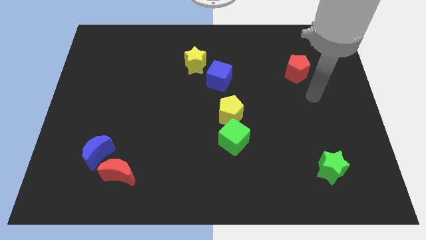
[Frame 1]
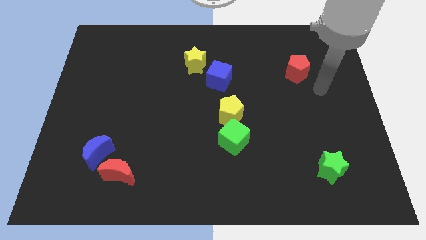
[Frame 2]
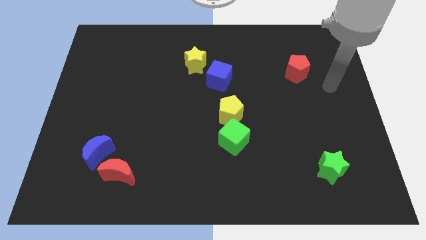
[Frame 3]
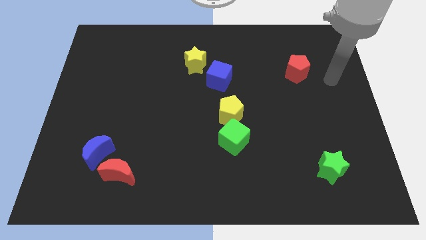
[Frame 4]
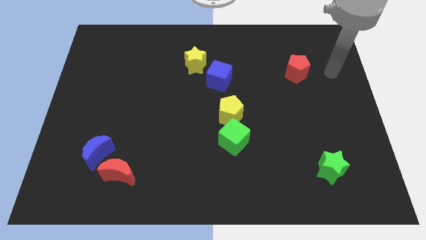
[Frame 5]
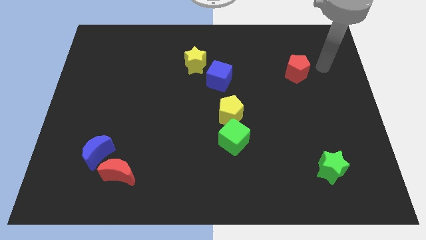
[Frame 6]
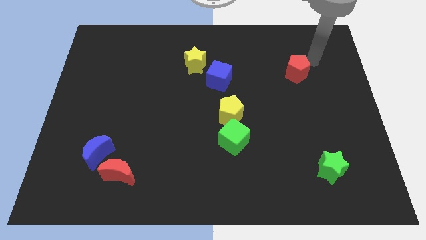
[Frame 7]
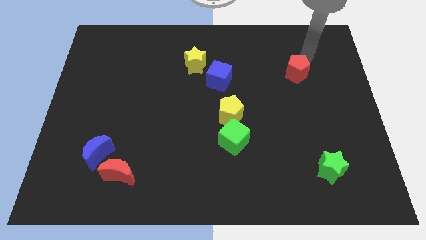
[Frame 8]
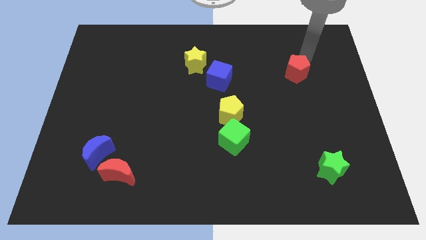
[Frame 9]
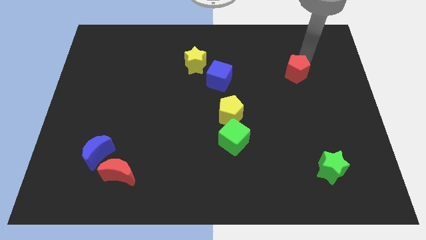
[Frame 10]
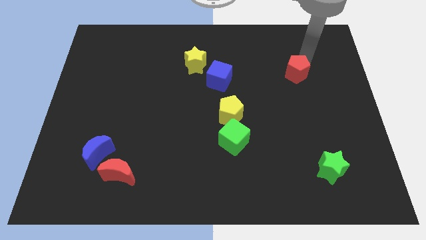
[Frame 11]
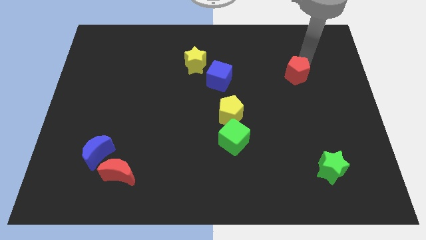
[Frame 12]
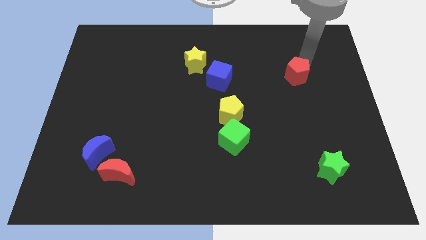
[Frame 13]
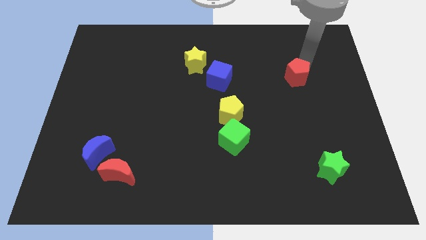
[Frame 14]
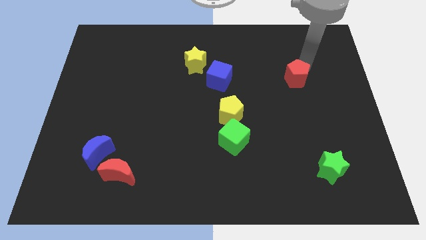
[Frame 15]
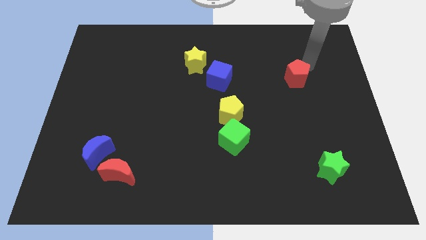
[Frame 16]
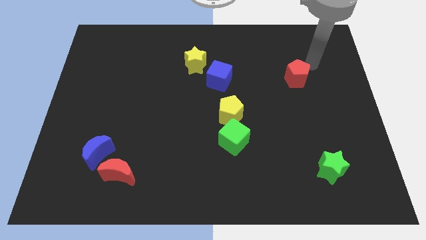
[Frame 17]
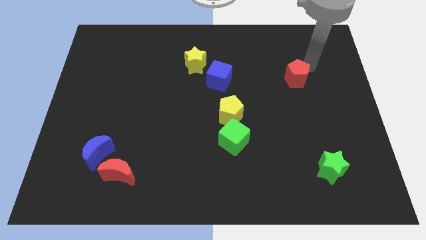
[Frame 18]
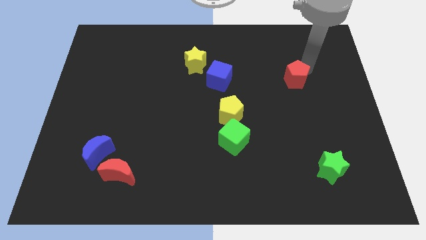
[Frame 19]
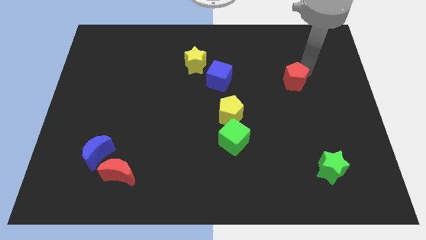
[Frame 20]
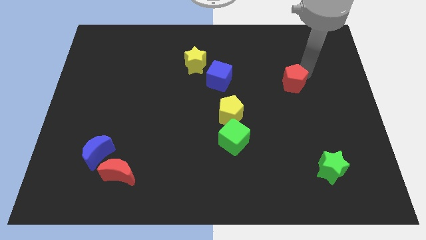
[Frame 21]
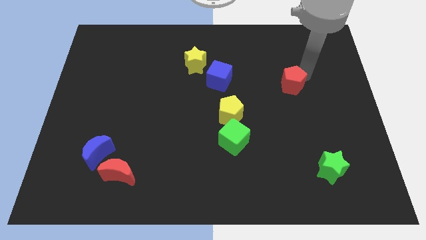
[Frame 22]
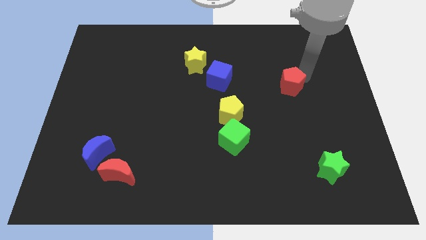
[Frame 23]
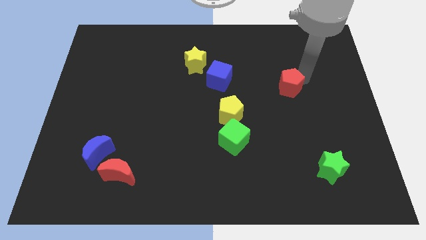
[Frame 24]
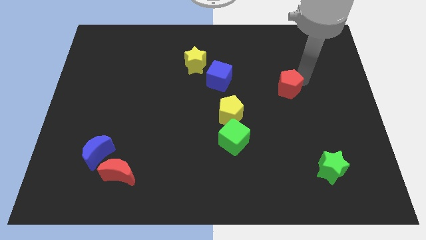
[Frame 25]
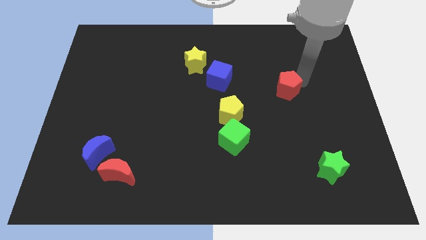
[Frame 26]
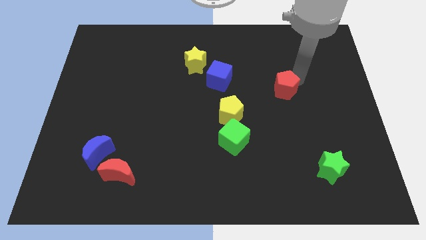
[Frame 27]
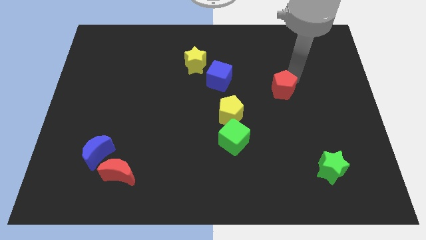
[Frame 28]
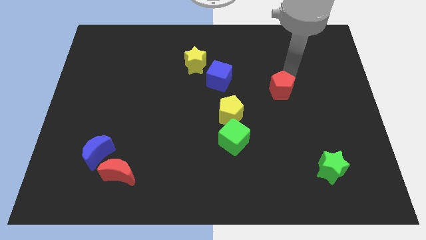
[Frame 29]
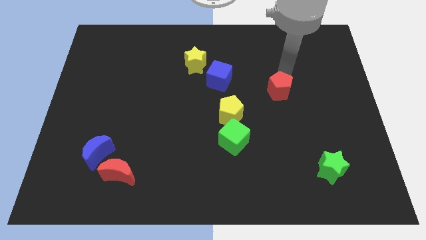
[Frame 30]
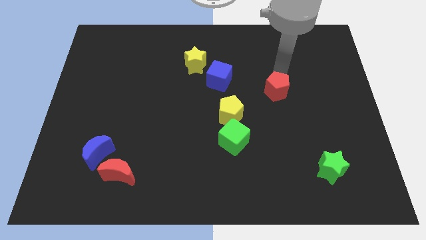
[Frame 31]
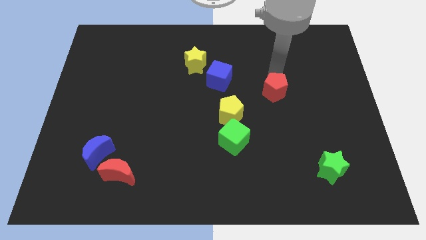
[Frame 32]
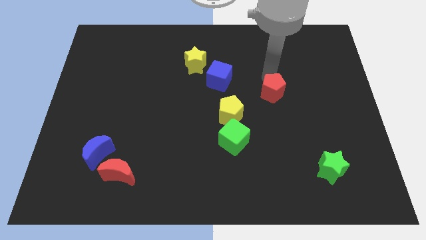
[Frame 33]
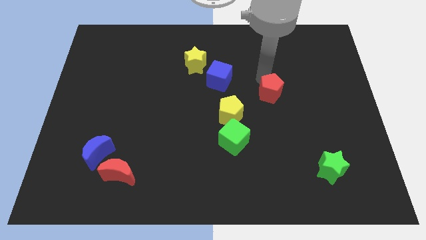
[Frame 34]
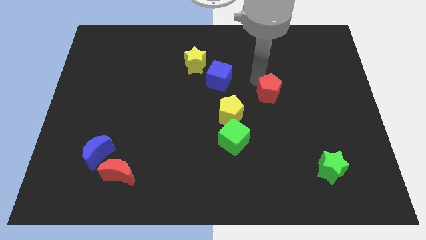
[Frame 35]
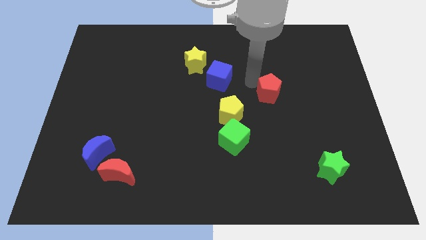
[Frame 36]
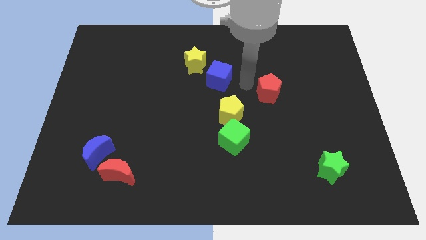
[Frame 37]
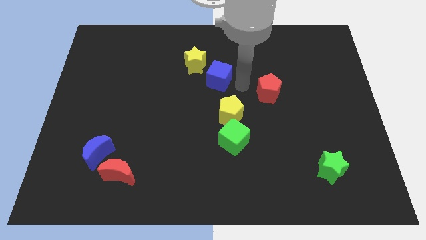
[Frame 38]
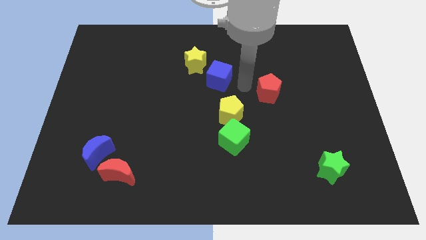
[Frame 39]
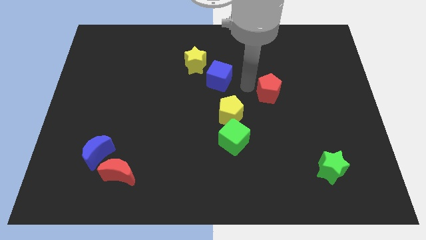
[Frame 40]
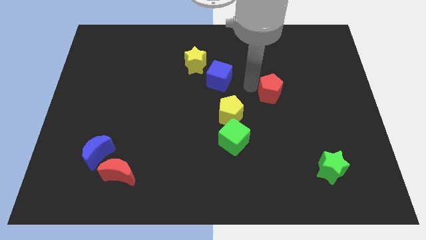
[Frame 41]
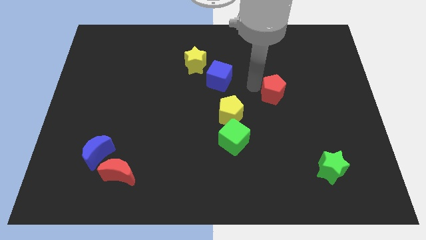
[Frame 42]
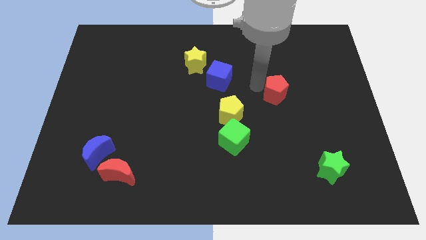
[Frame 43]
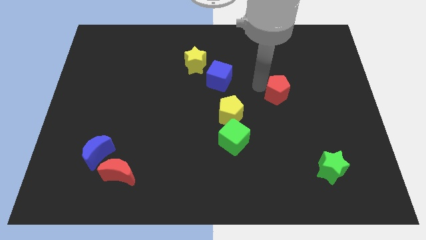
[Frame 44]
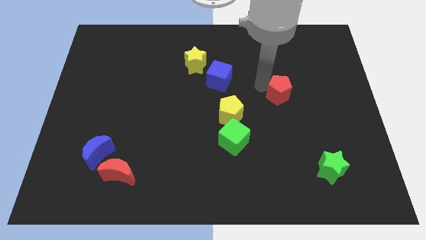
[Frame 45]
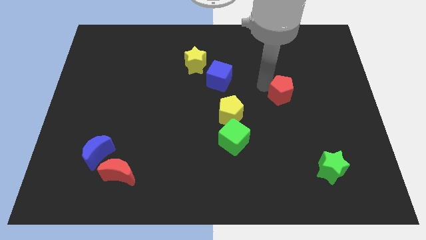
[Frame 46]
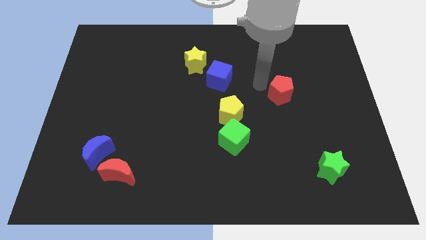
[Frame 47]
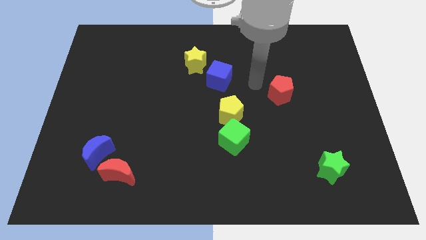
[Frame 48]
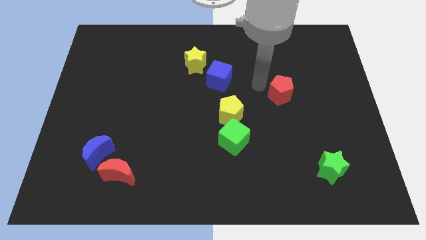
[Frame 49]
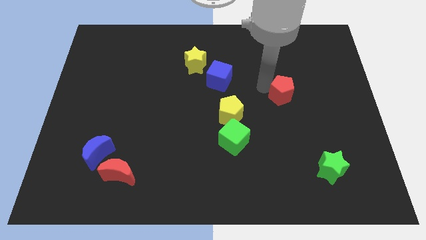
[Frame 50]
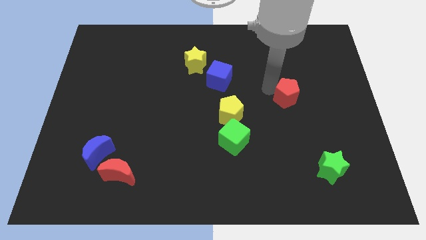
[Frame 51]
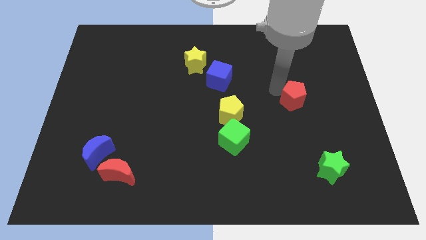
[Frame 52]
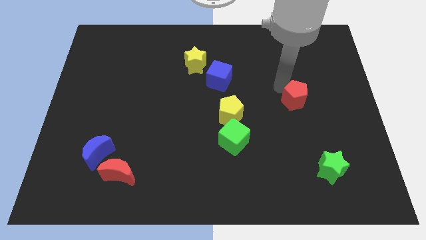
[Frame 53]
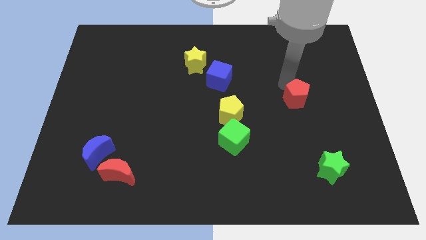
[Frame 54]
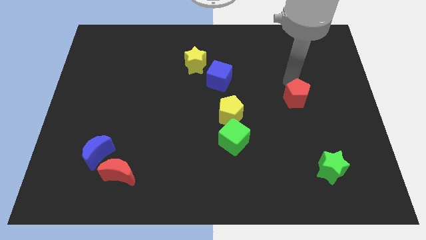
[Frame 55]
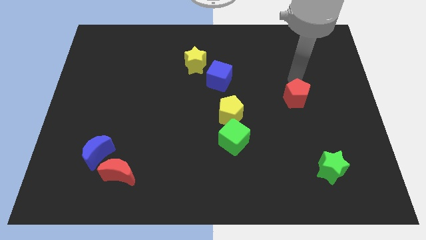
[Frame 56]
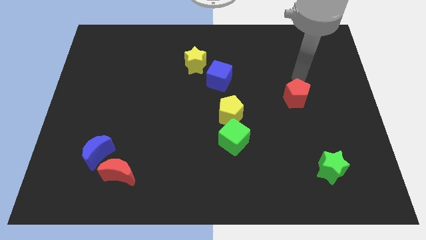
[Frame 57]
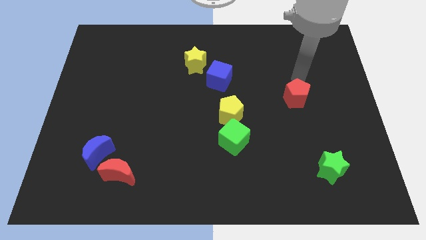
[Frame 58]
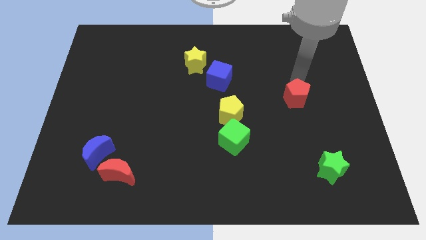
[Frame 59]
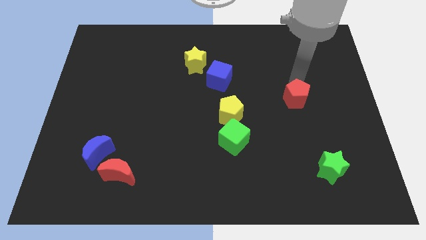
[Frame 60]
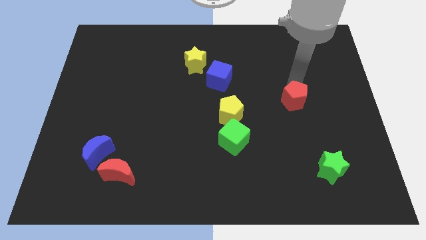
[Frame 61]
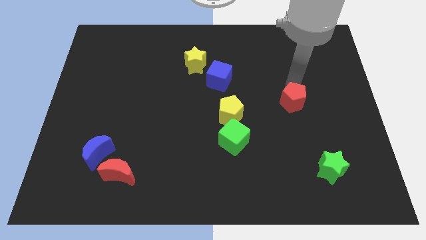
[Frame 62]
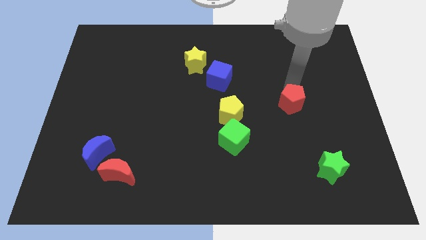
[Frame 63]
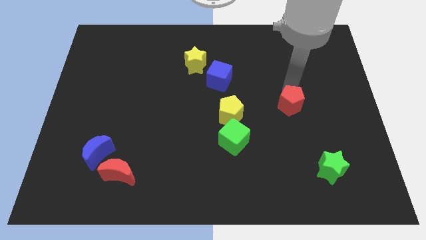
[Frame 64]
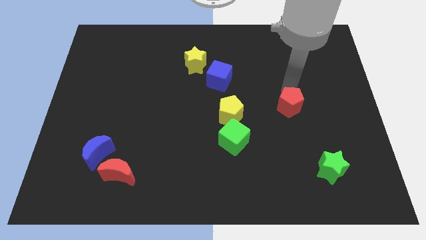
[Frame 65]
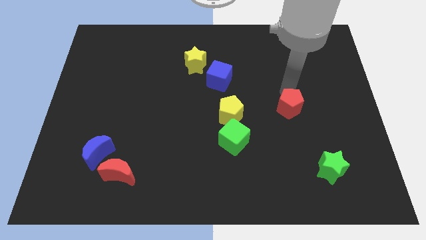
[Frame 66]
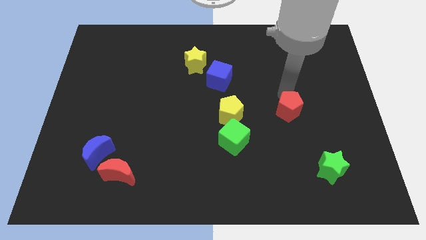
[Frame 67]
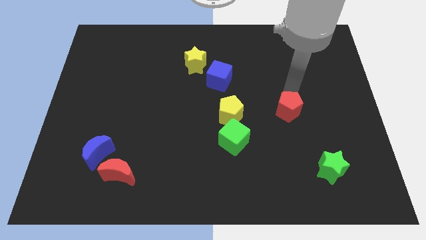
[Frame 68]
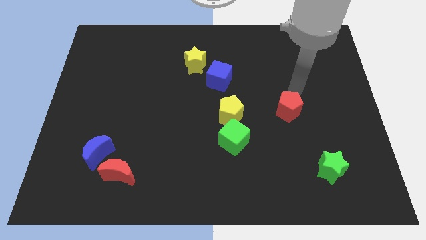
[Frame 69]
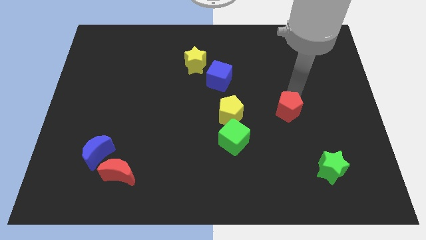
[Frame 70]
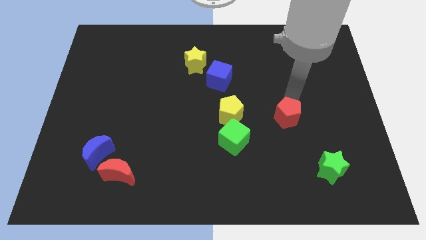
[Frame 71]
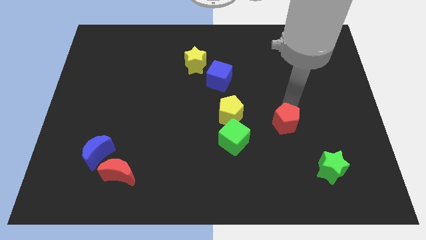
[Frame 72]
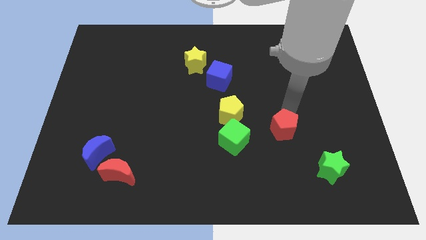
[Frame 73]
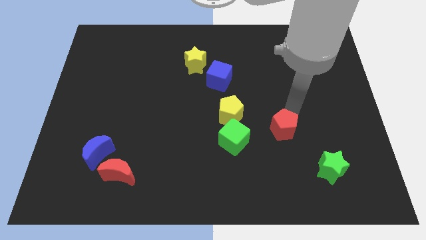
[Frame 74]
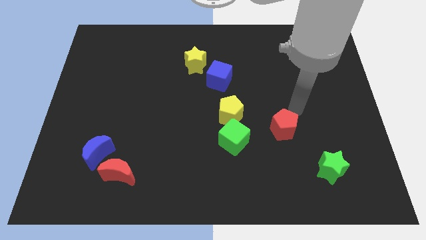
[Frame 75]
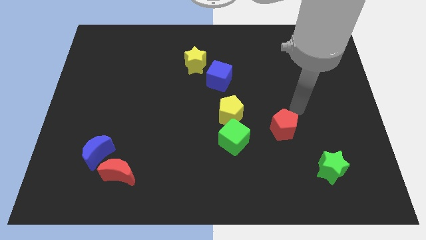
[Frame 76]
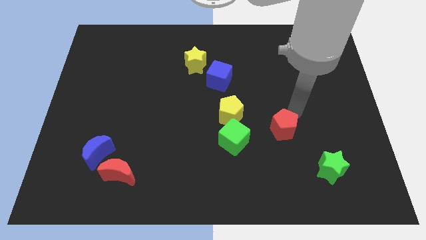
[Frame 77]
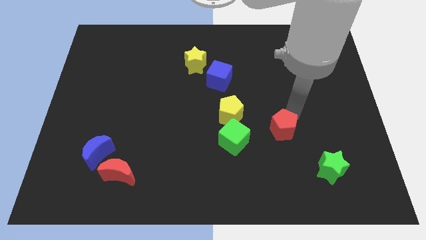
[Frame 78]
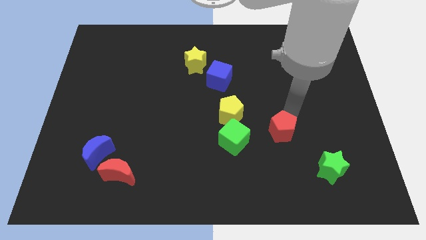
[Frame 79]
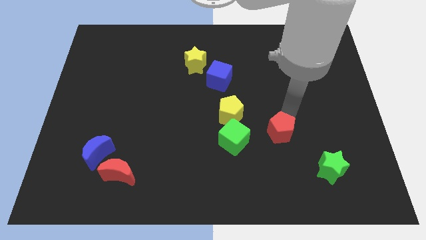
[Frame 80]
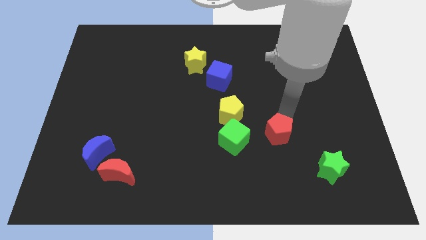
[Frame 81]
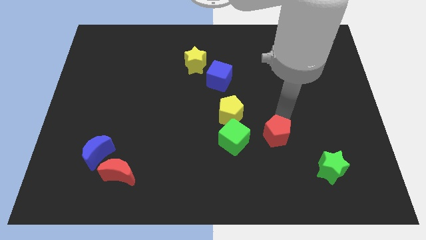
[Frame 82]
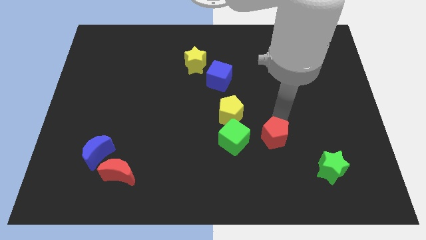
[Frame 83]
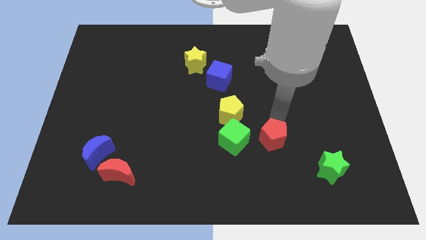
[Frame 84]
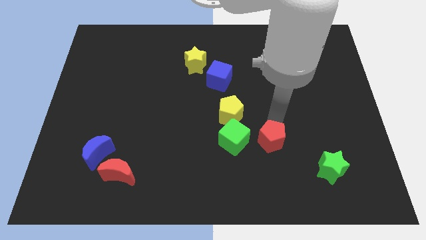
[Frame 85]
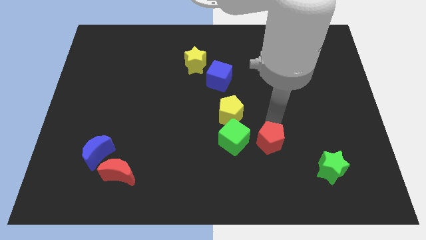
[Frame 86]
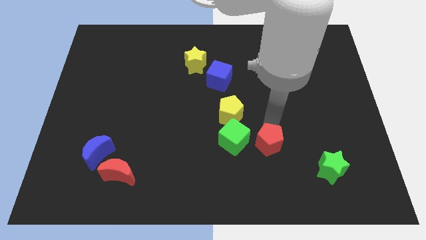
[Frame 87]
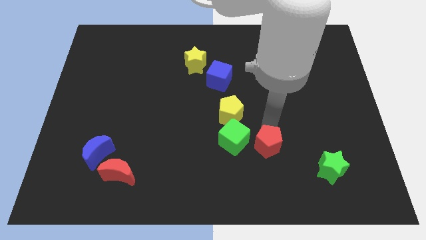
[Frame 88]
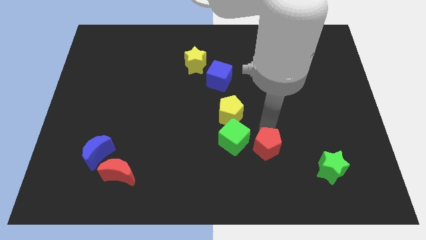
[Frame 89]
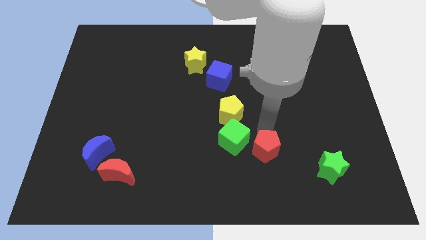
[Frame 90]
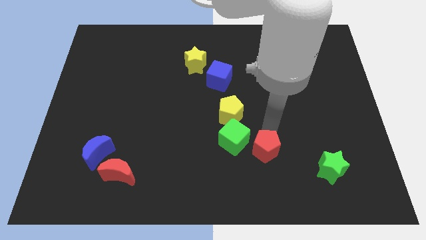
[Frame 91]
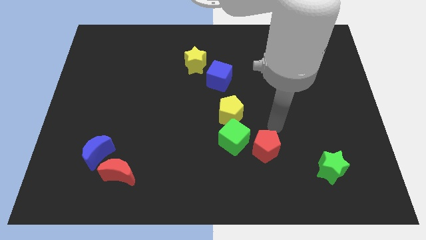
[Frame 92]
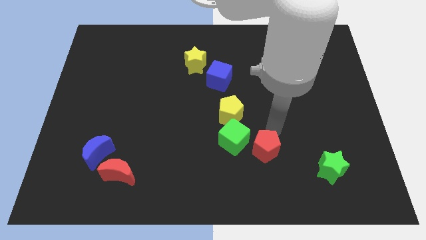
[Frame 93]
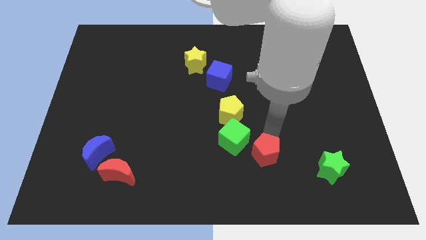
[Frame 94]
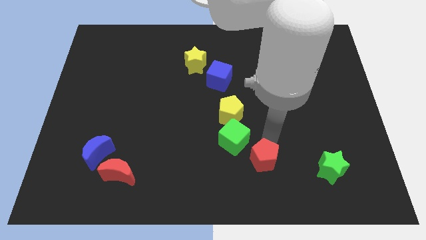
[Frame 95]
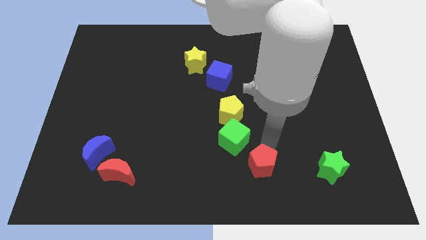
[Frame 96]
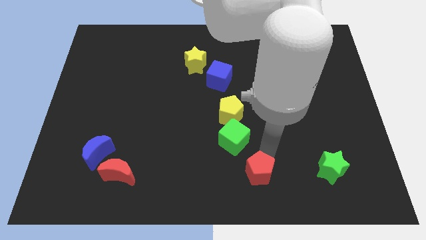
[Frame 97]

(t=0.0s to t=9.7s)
move the red pentagon to the bottom side
